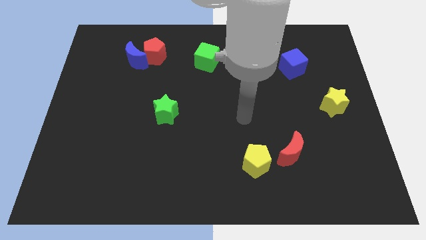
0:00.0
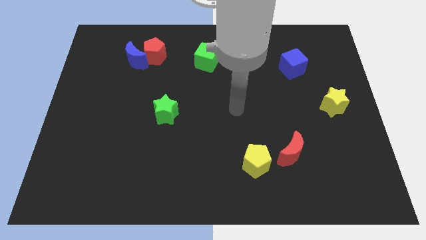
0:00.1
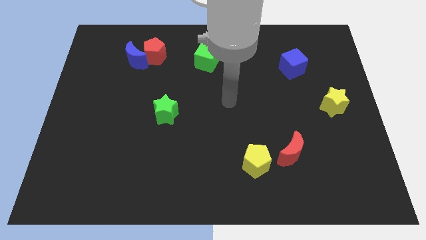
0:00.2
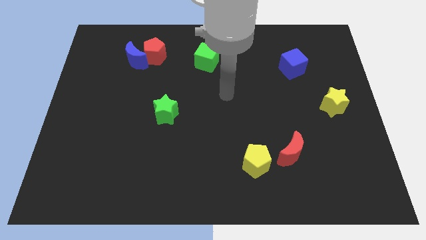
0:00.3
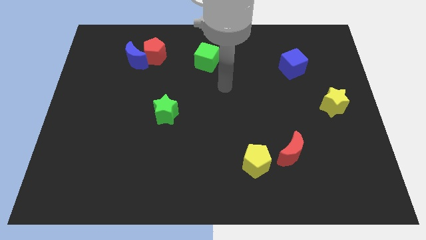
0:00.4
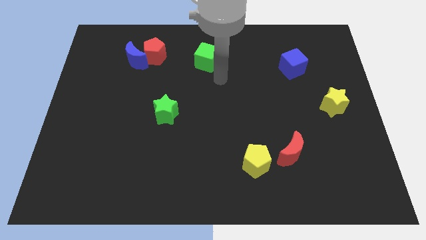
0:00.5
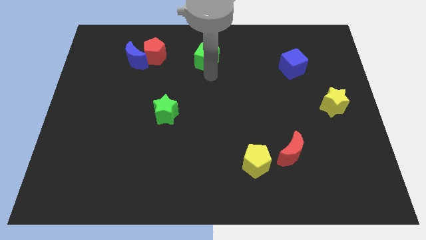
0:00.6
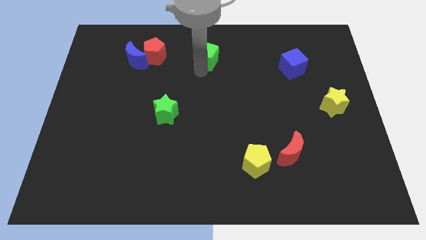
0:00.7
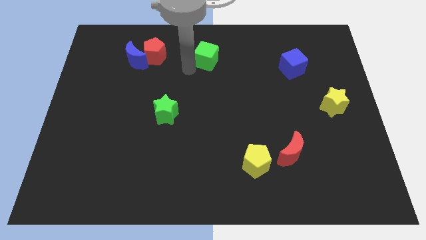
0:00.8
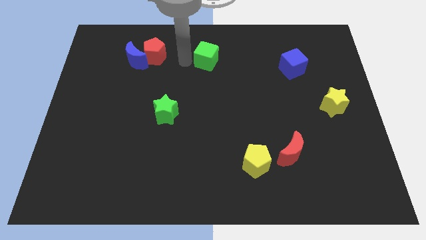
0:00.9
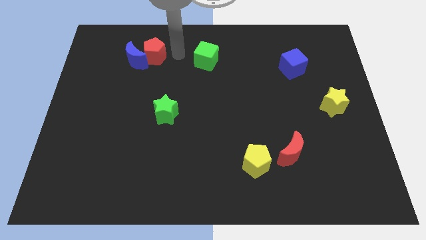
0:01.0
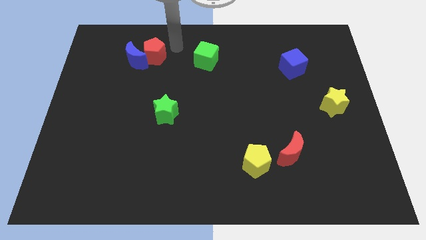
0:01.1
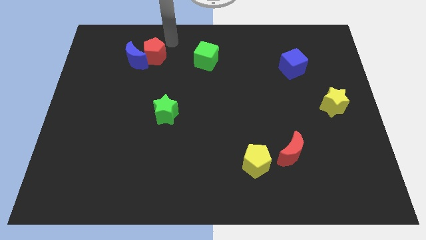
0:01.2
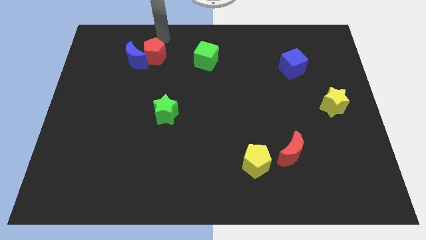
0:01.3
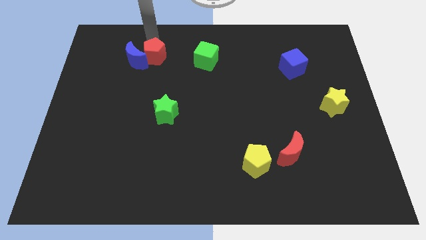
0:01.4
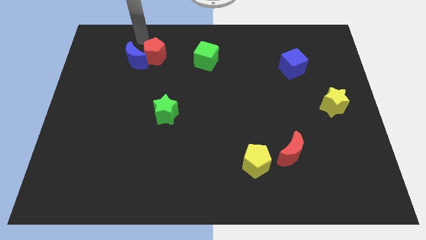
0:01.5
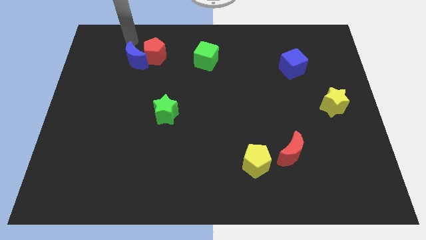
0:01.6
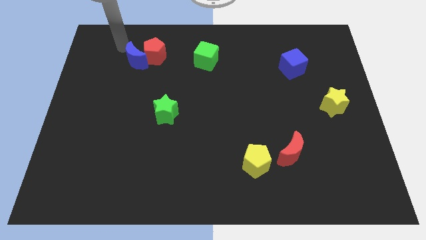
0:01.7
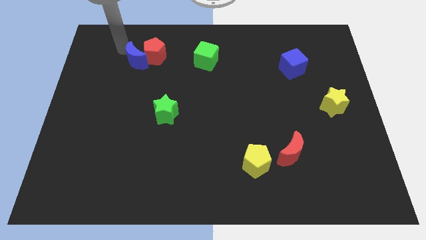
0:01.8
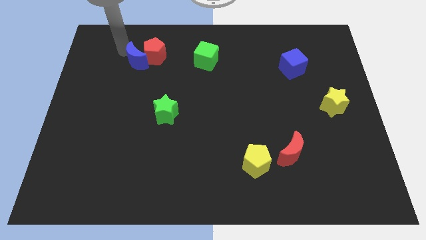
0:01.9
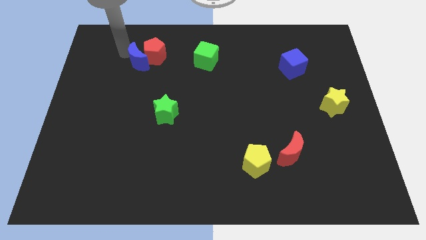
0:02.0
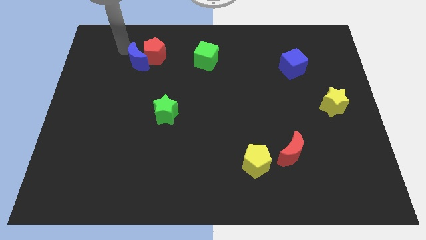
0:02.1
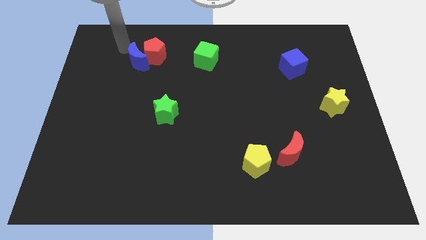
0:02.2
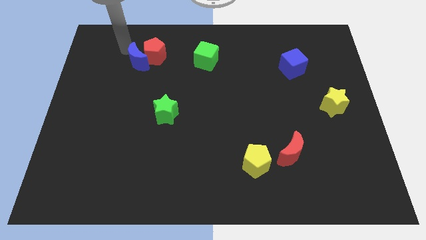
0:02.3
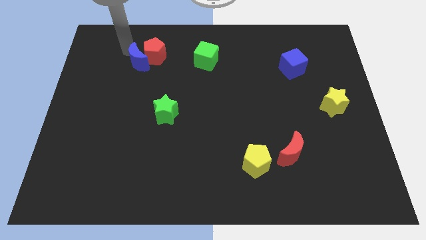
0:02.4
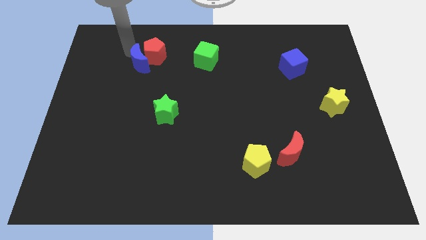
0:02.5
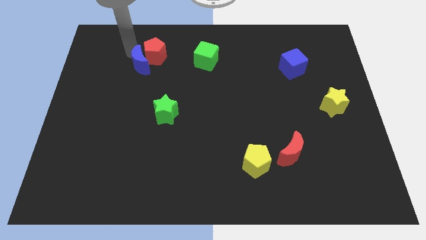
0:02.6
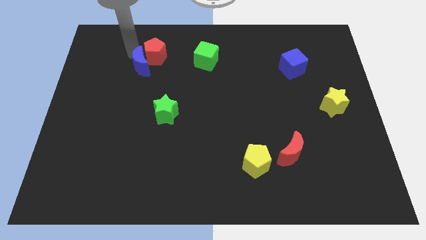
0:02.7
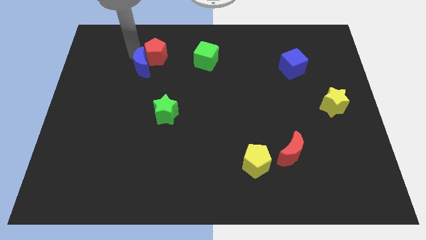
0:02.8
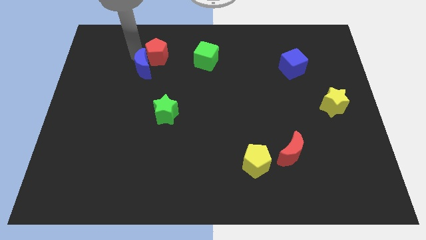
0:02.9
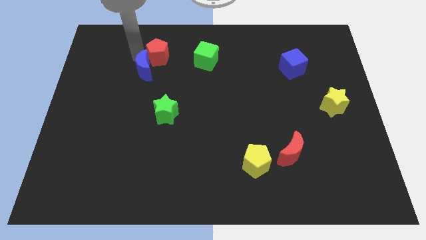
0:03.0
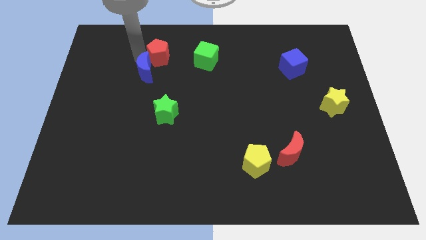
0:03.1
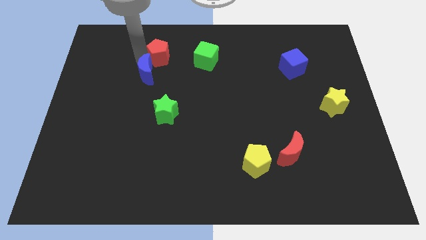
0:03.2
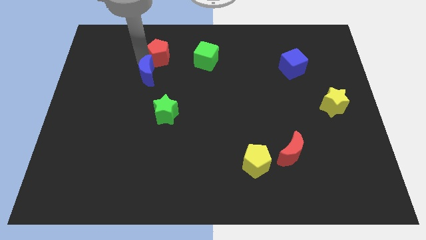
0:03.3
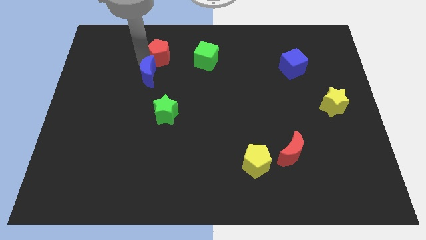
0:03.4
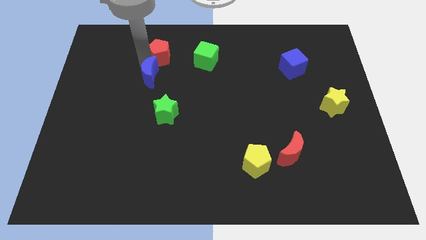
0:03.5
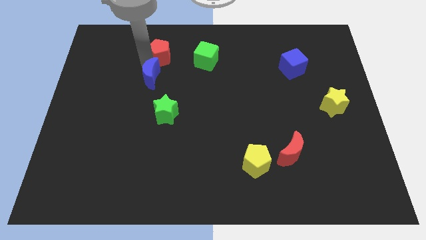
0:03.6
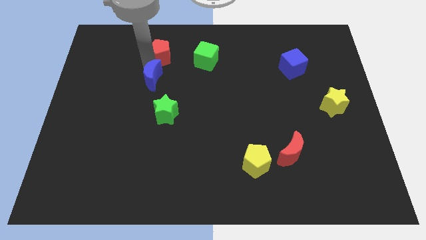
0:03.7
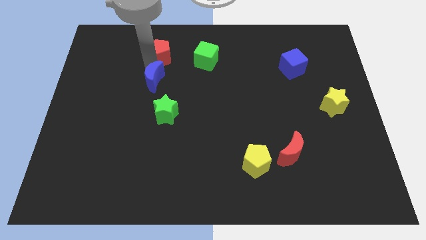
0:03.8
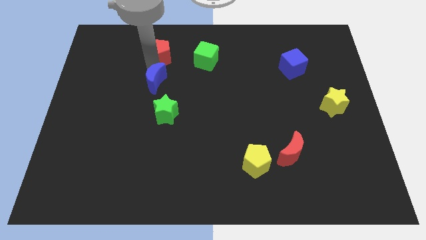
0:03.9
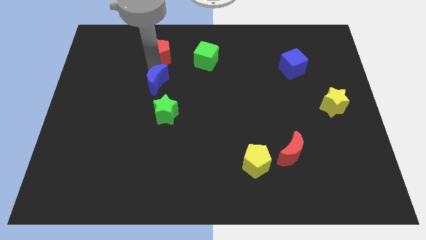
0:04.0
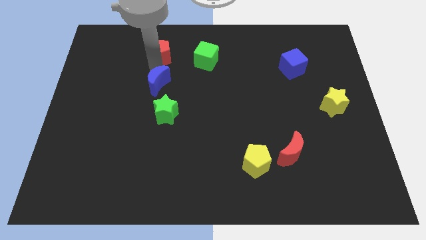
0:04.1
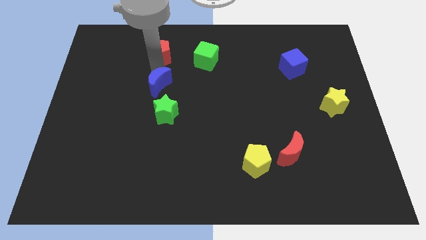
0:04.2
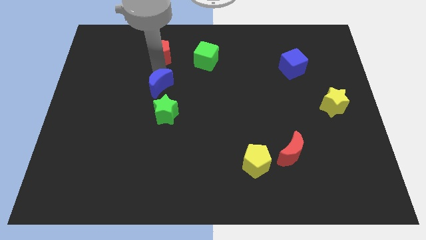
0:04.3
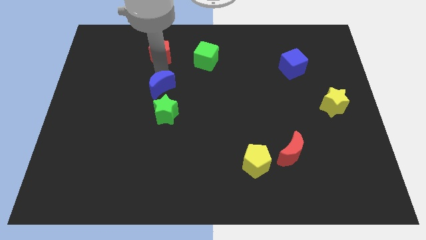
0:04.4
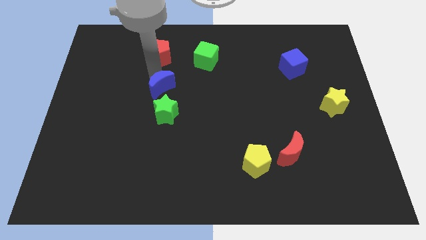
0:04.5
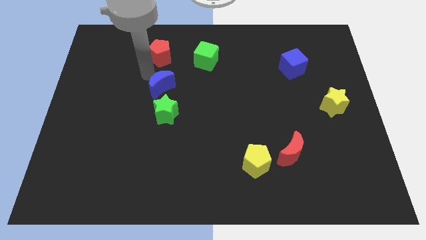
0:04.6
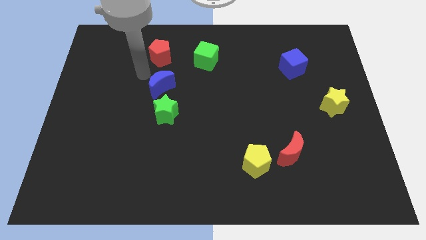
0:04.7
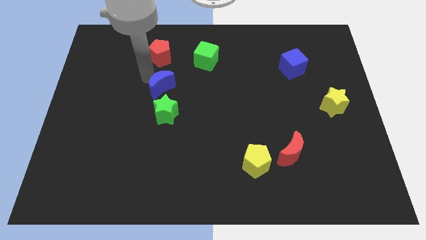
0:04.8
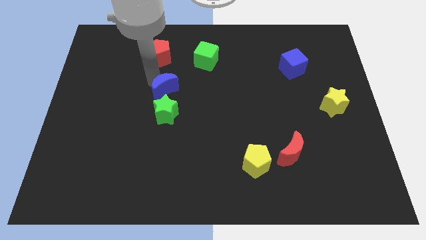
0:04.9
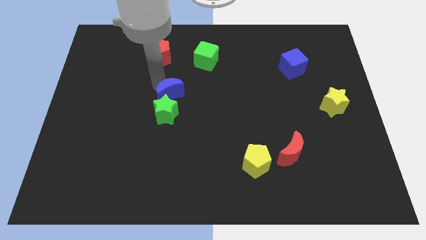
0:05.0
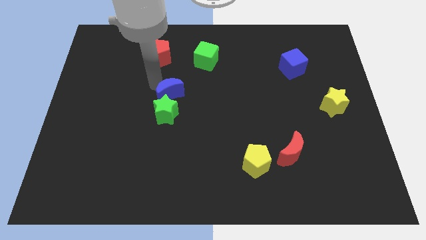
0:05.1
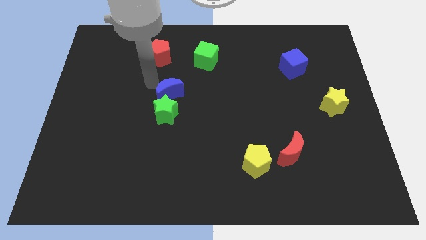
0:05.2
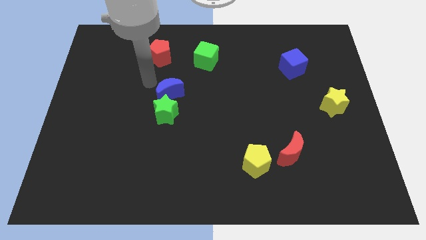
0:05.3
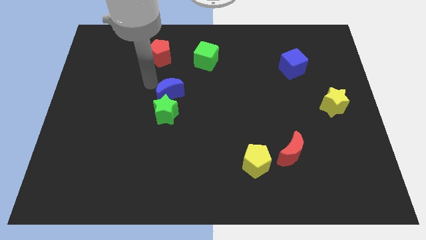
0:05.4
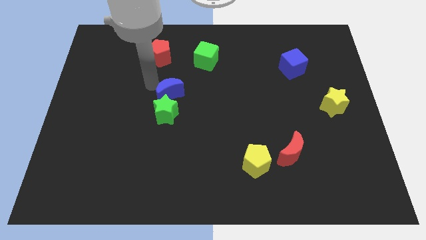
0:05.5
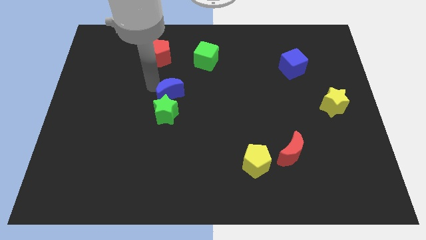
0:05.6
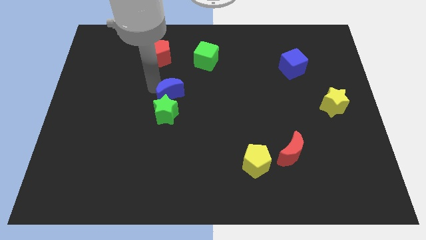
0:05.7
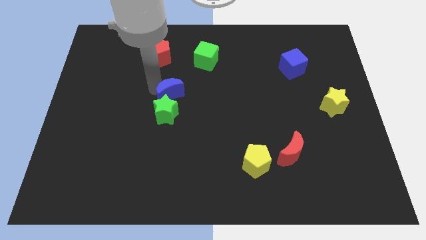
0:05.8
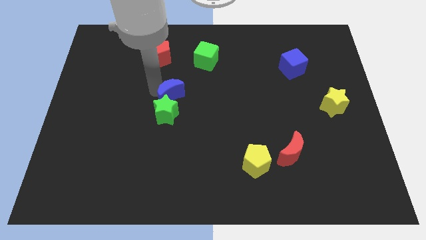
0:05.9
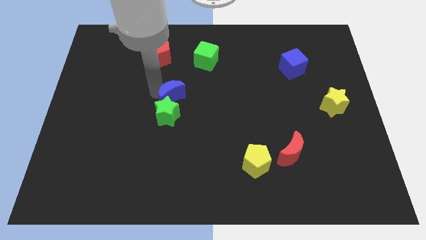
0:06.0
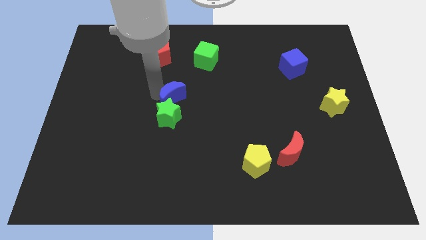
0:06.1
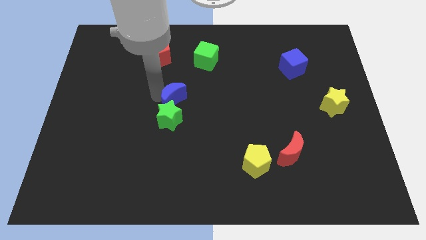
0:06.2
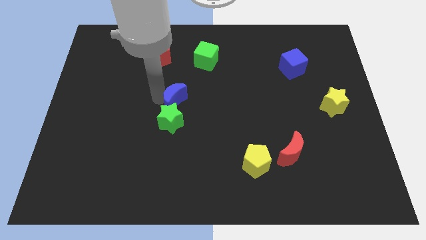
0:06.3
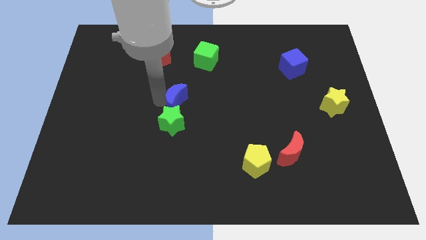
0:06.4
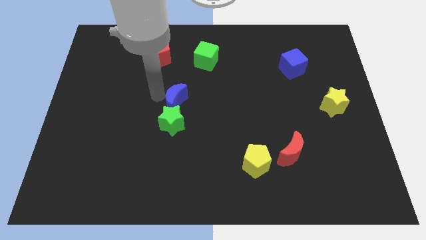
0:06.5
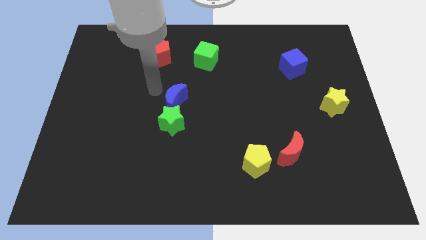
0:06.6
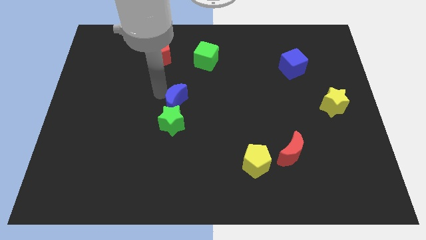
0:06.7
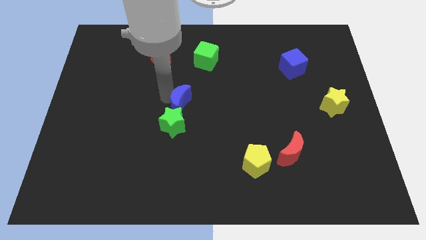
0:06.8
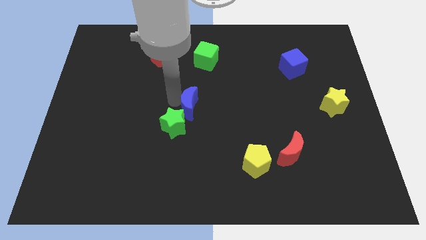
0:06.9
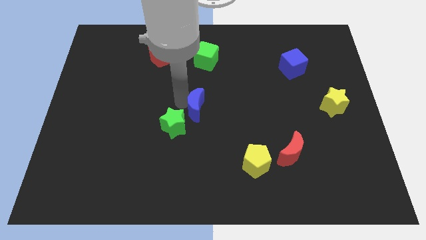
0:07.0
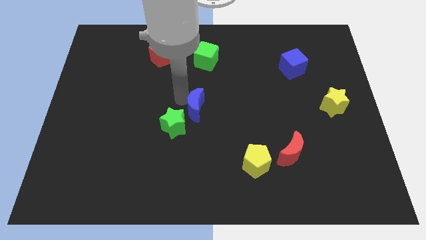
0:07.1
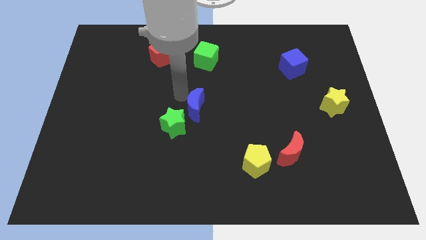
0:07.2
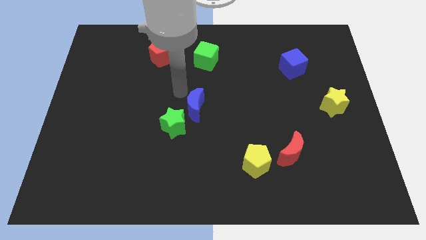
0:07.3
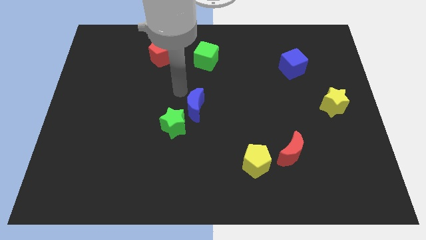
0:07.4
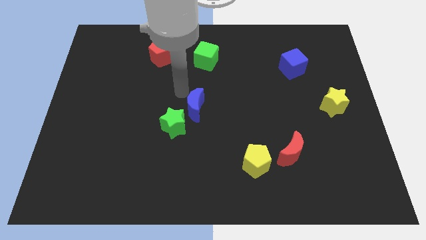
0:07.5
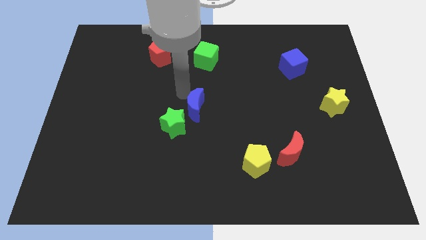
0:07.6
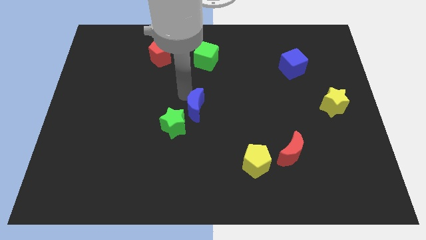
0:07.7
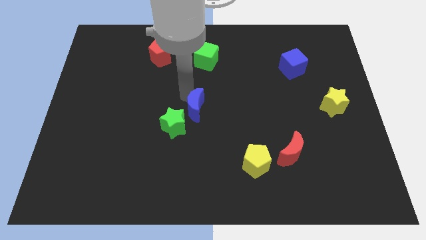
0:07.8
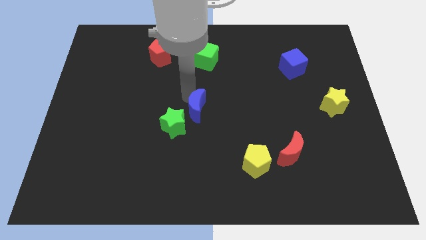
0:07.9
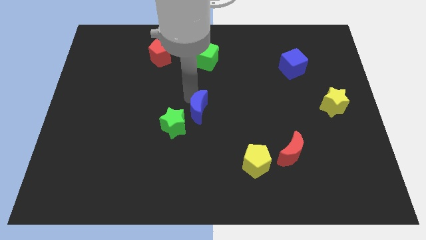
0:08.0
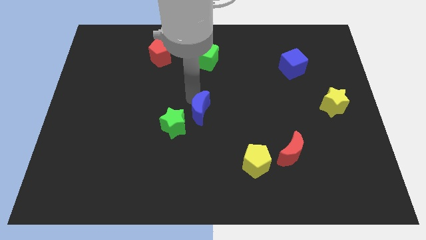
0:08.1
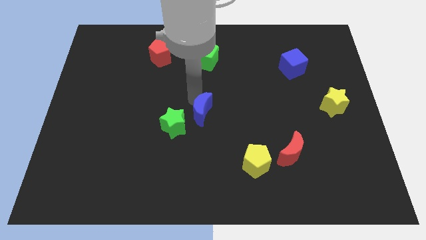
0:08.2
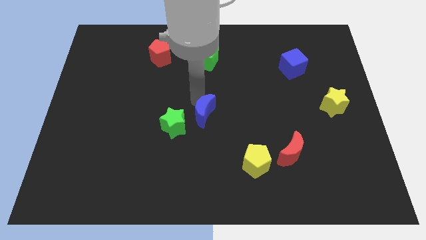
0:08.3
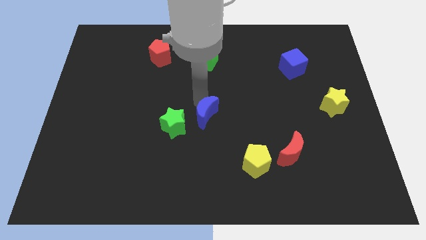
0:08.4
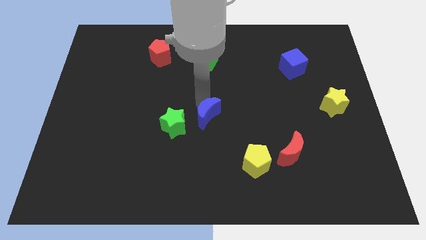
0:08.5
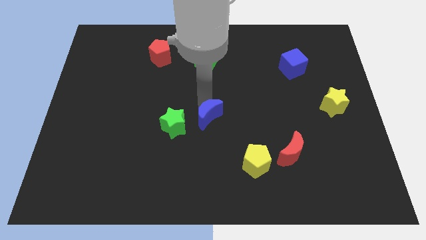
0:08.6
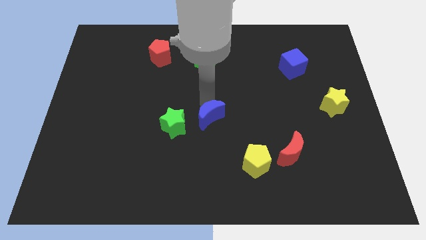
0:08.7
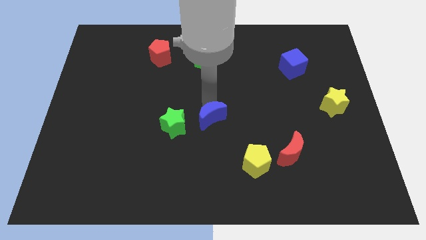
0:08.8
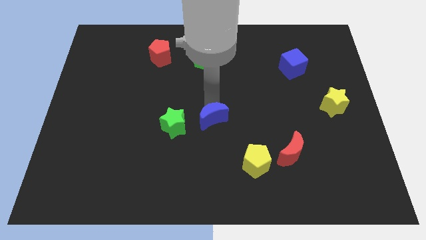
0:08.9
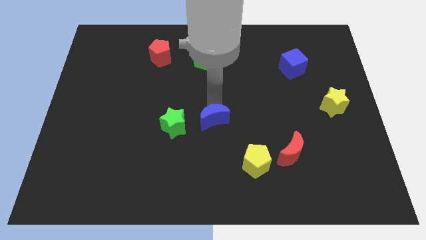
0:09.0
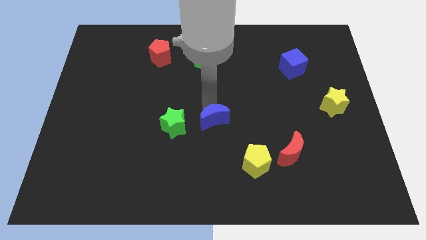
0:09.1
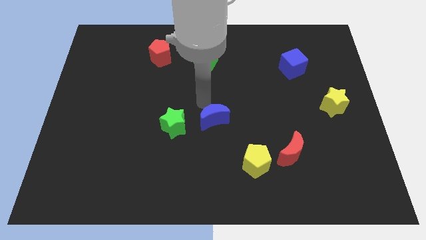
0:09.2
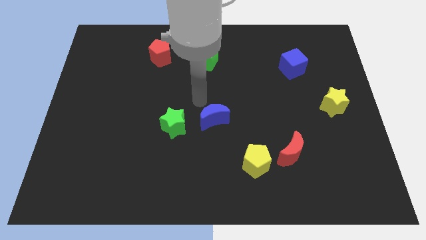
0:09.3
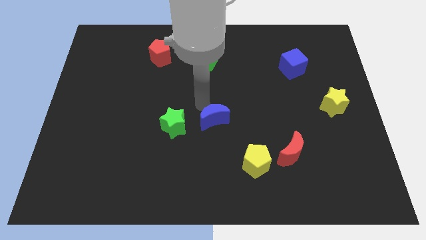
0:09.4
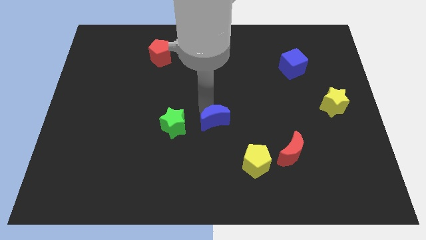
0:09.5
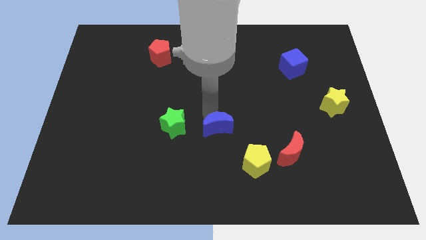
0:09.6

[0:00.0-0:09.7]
put the blue moon to the top left of the yellow pentagon
